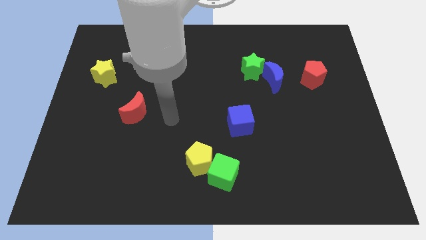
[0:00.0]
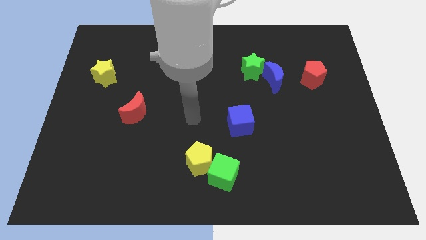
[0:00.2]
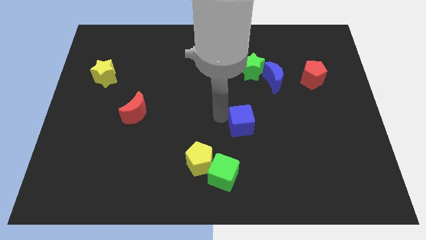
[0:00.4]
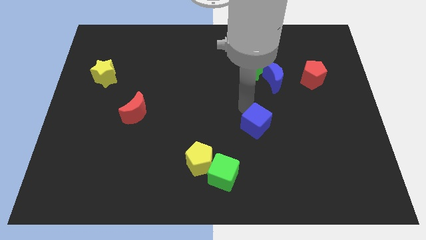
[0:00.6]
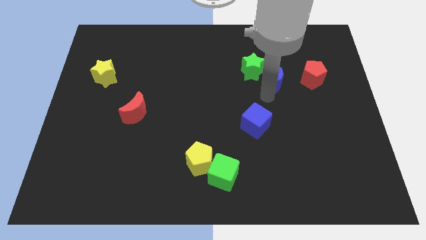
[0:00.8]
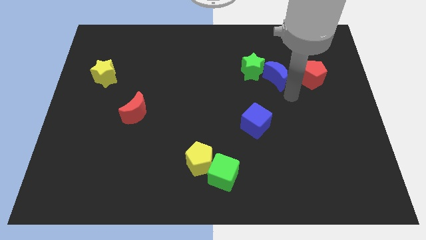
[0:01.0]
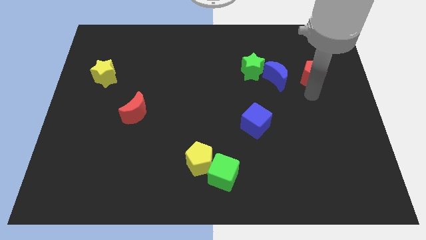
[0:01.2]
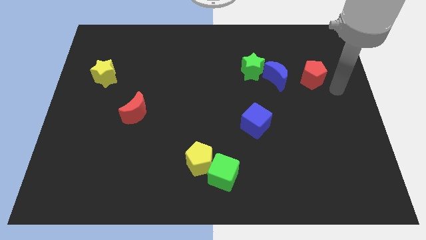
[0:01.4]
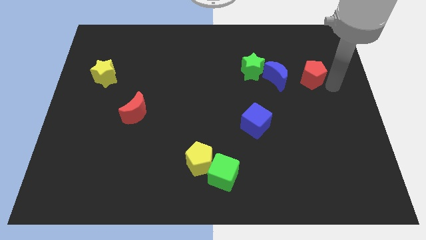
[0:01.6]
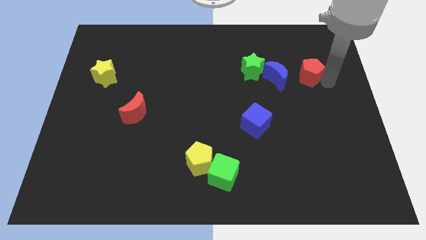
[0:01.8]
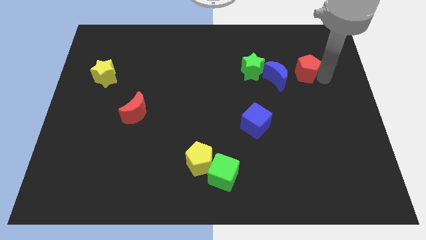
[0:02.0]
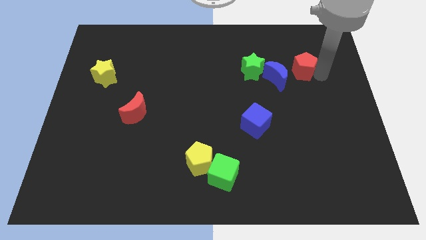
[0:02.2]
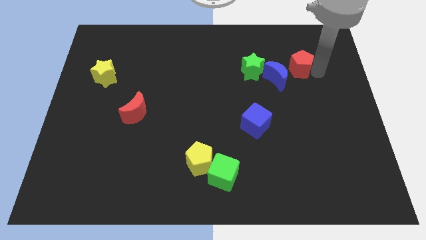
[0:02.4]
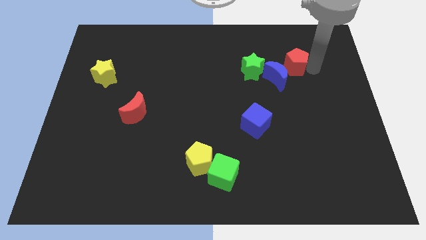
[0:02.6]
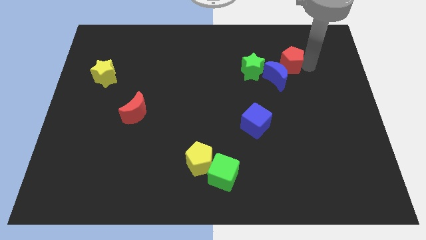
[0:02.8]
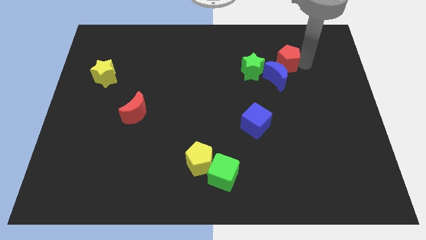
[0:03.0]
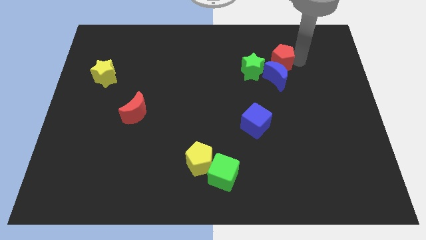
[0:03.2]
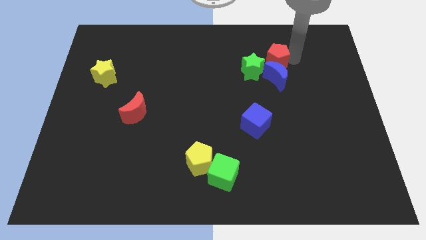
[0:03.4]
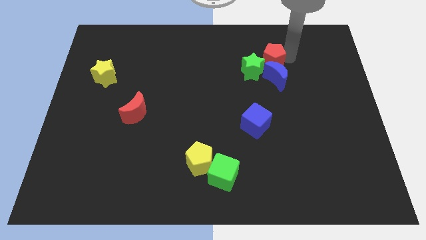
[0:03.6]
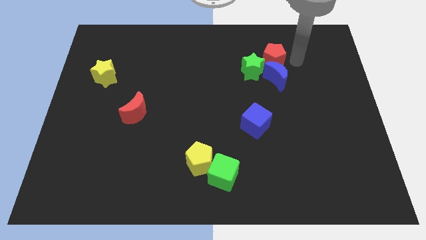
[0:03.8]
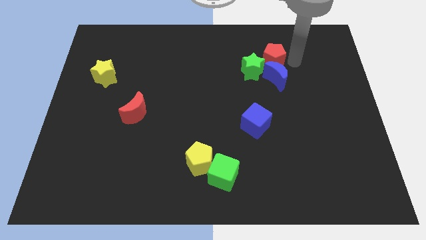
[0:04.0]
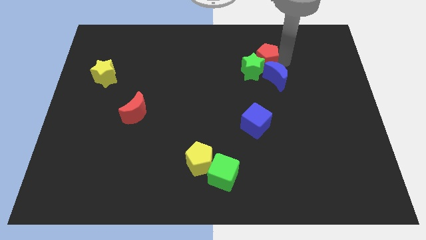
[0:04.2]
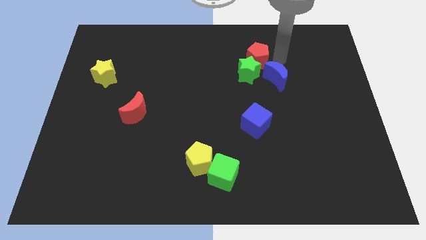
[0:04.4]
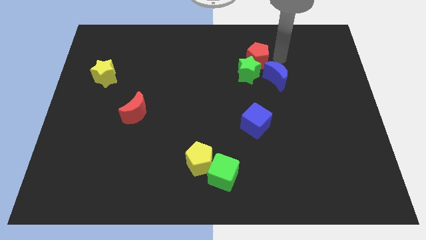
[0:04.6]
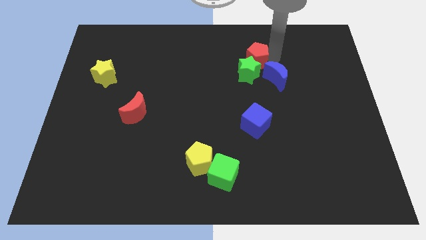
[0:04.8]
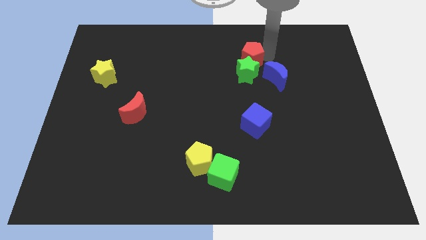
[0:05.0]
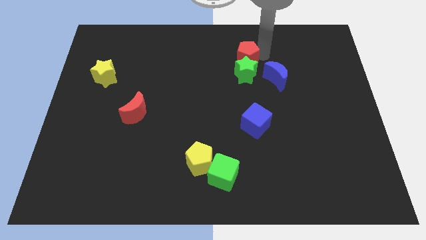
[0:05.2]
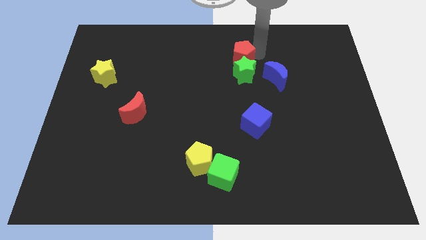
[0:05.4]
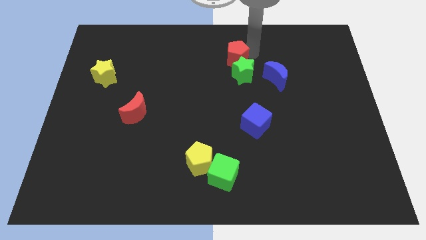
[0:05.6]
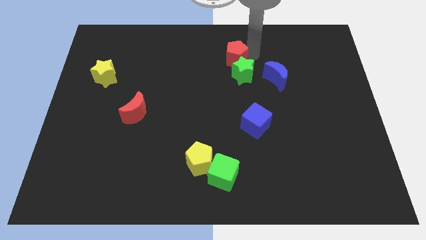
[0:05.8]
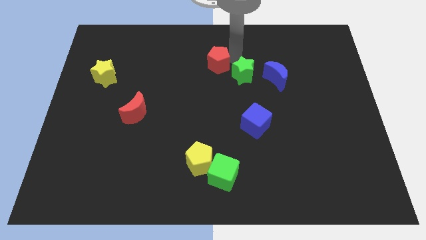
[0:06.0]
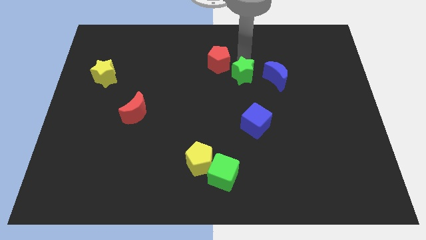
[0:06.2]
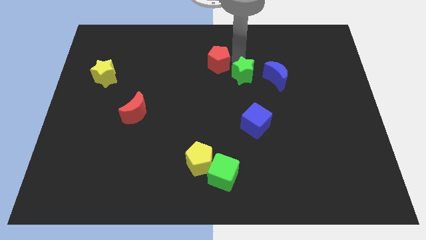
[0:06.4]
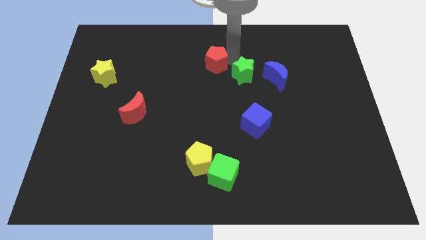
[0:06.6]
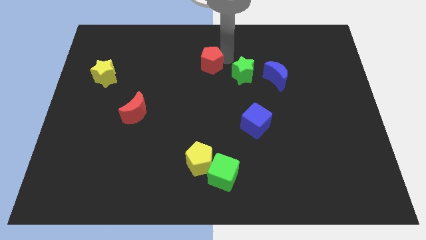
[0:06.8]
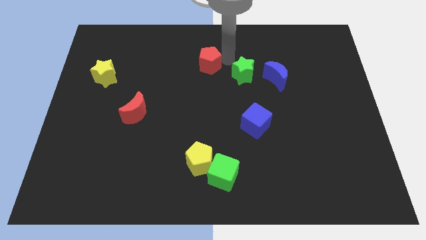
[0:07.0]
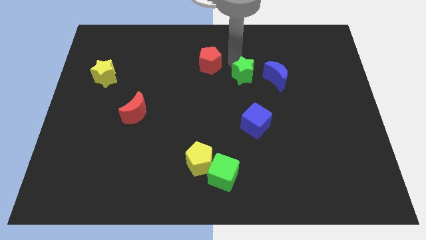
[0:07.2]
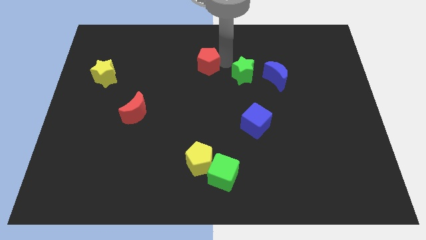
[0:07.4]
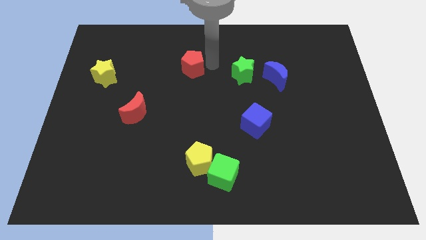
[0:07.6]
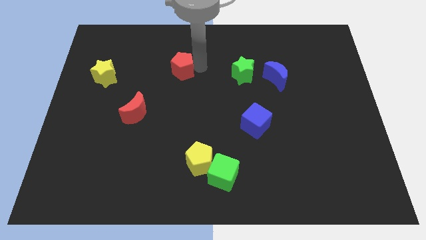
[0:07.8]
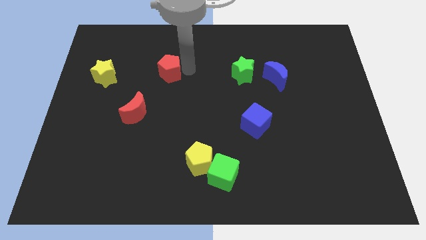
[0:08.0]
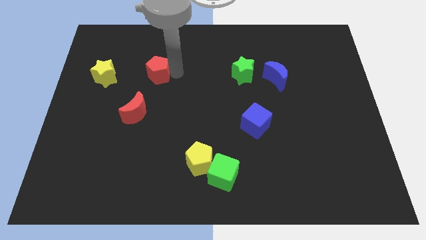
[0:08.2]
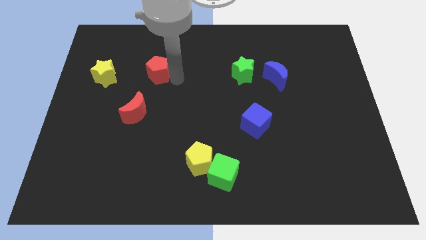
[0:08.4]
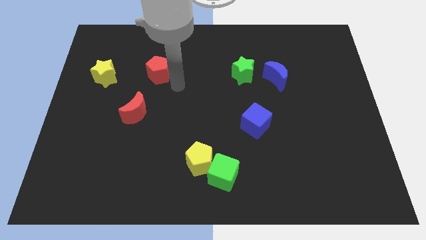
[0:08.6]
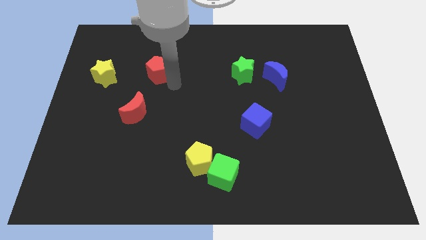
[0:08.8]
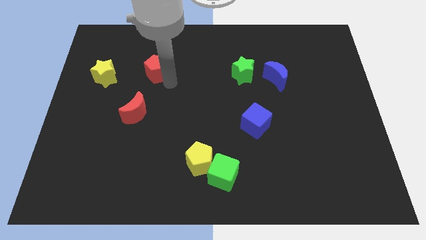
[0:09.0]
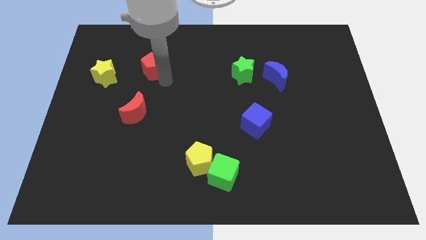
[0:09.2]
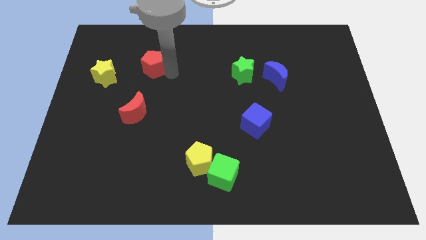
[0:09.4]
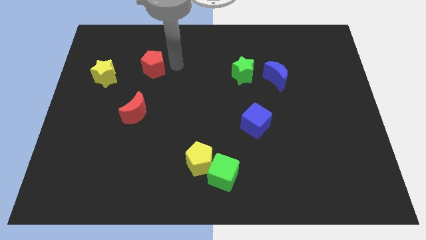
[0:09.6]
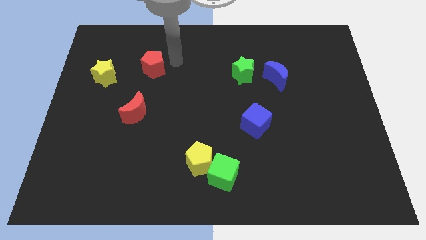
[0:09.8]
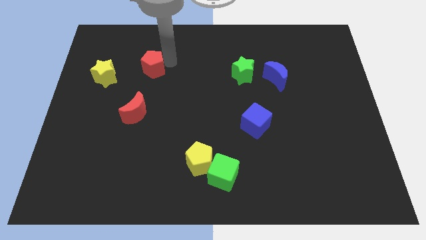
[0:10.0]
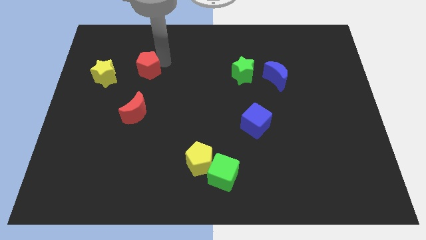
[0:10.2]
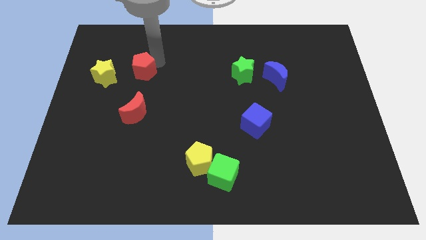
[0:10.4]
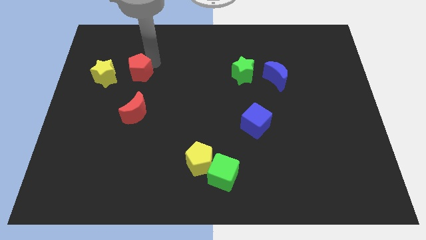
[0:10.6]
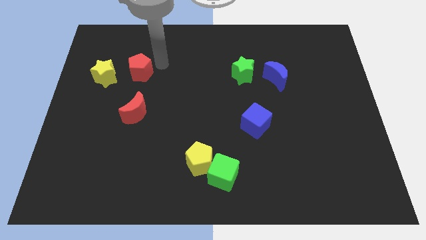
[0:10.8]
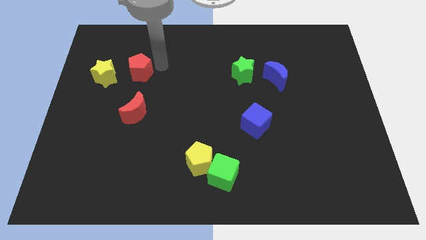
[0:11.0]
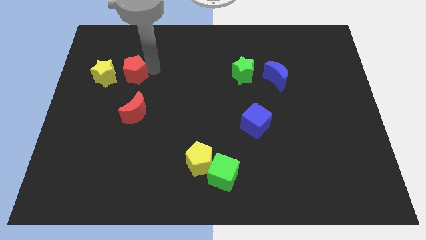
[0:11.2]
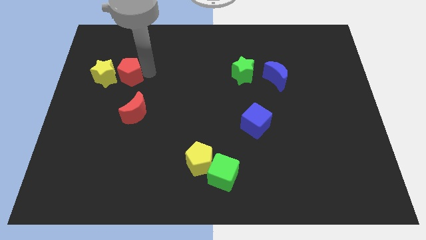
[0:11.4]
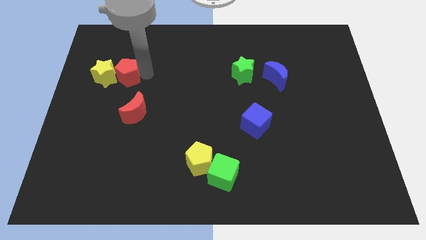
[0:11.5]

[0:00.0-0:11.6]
put the red pentagon close to the yellow star
